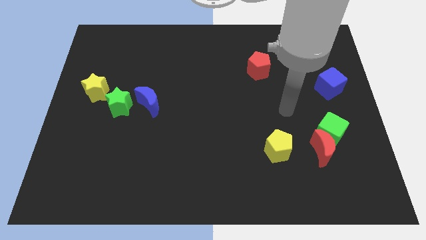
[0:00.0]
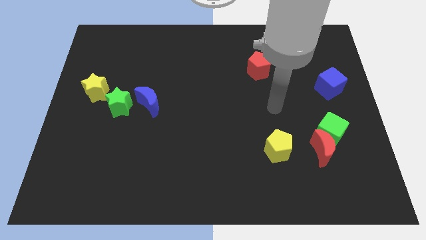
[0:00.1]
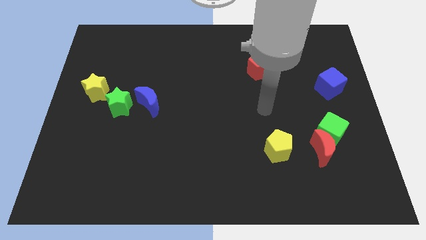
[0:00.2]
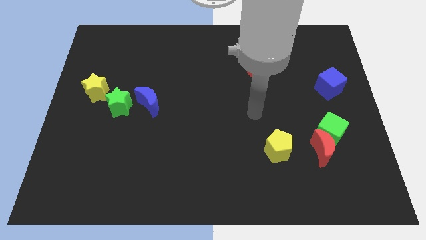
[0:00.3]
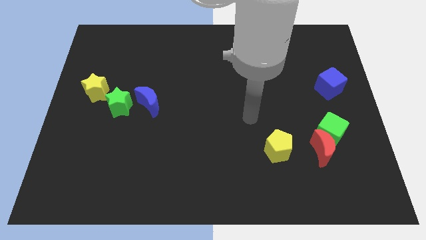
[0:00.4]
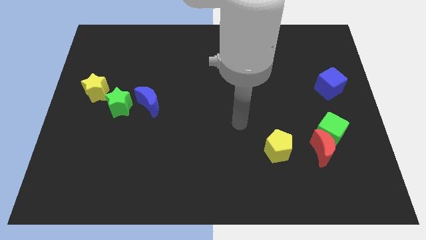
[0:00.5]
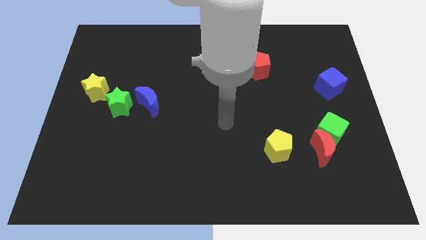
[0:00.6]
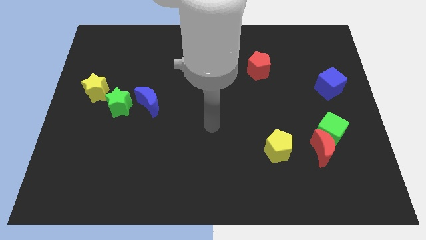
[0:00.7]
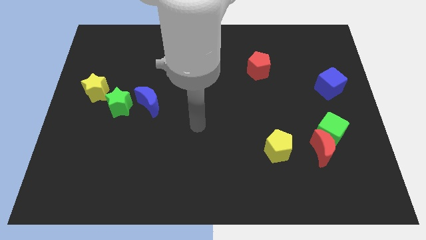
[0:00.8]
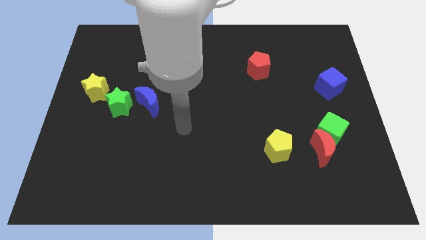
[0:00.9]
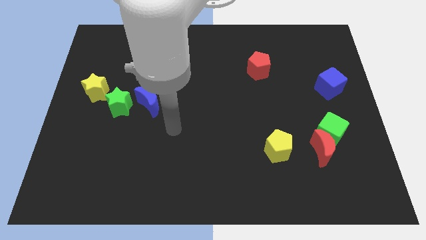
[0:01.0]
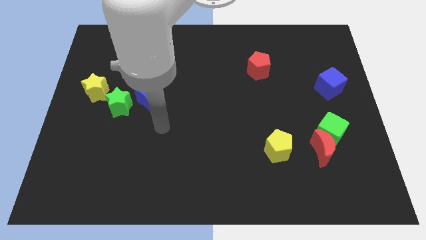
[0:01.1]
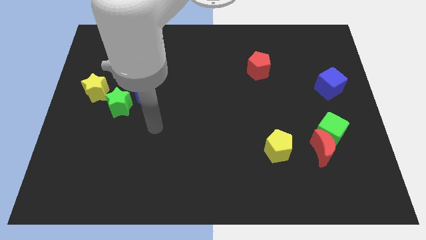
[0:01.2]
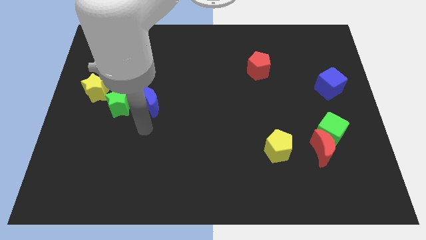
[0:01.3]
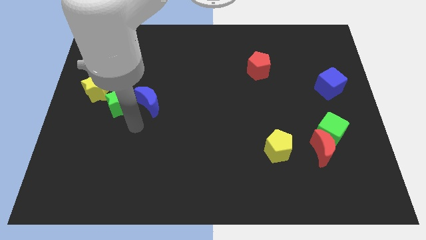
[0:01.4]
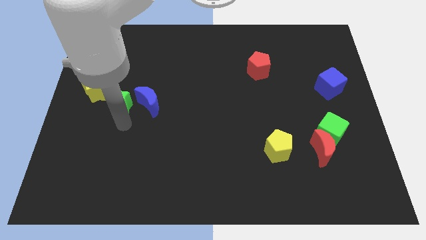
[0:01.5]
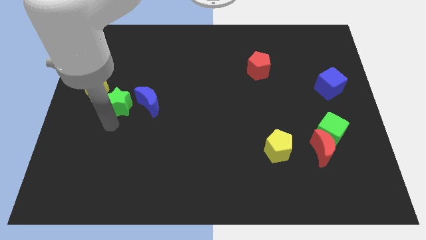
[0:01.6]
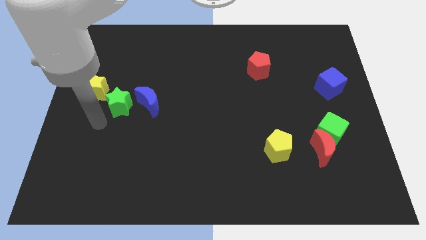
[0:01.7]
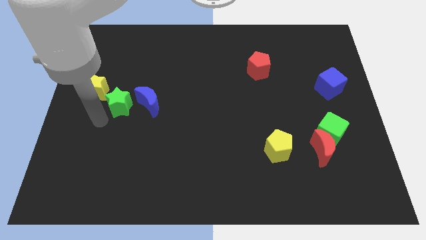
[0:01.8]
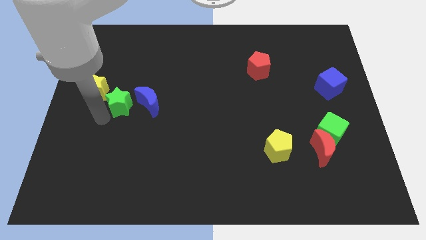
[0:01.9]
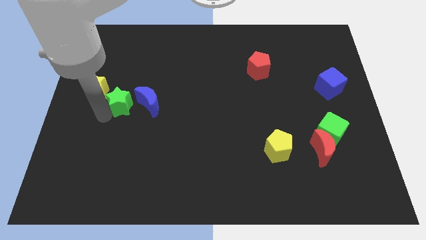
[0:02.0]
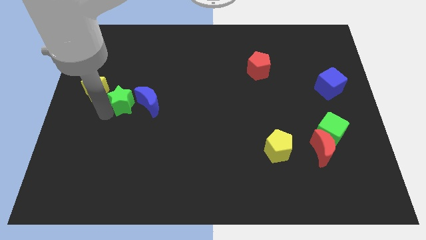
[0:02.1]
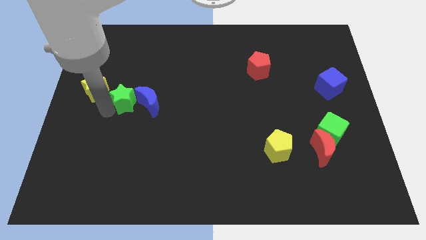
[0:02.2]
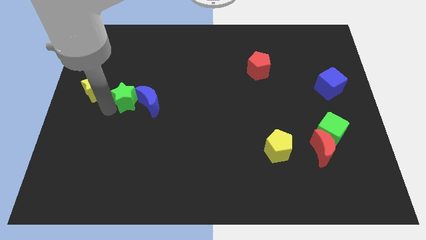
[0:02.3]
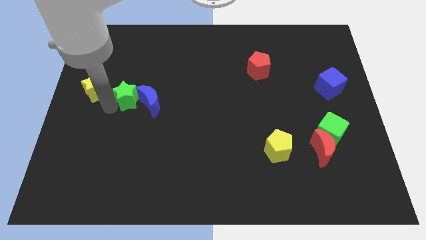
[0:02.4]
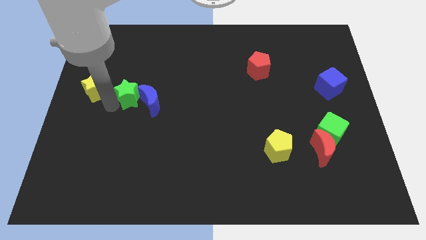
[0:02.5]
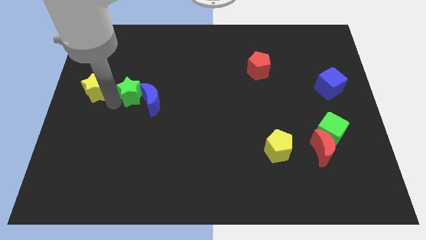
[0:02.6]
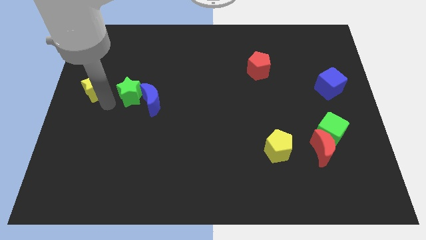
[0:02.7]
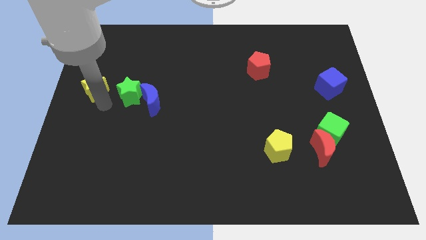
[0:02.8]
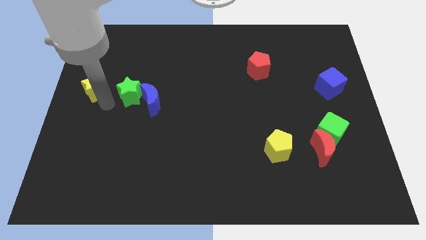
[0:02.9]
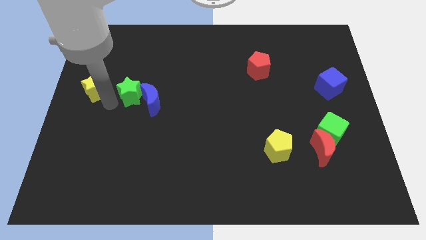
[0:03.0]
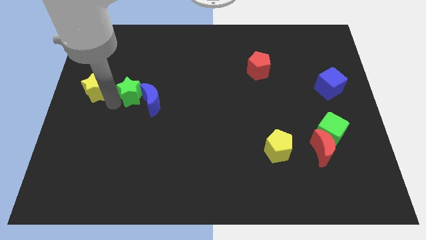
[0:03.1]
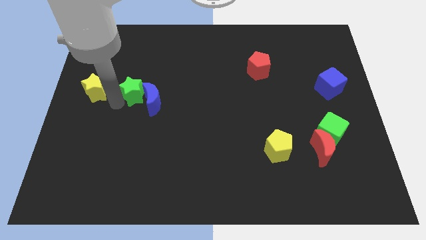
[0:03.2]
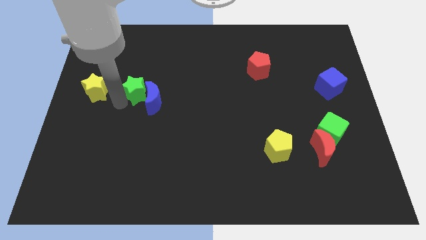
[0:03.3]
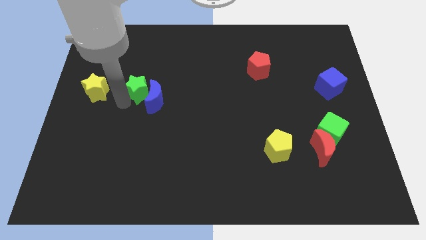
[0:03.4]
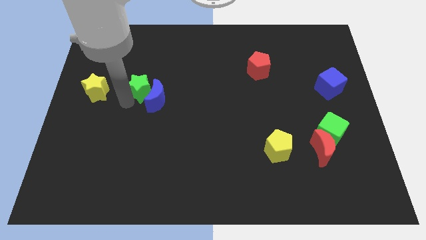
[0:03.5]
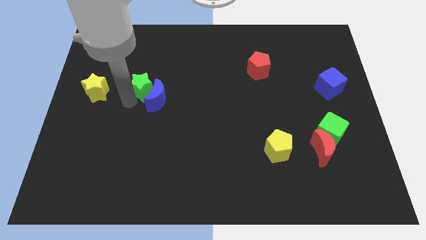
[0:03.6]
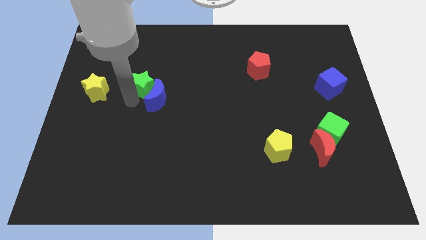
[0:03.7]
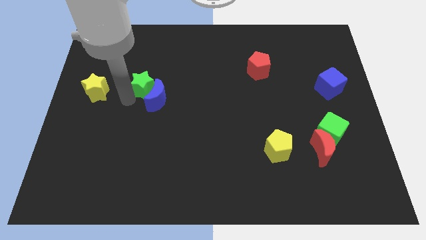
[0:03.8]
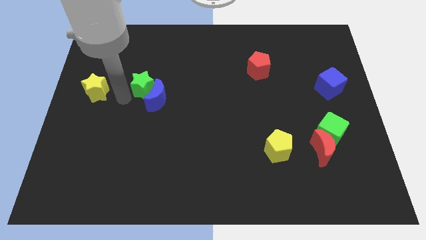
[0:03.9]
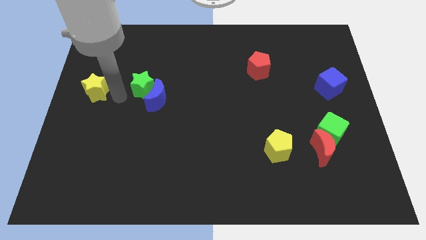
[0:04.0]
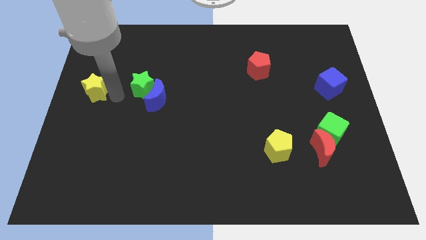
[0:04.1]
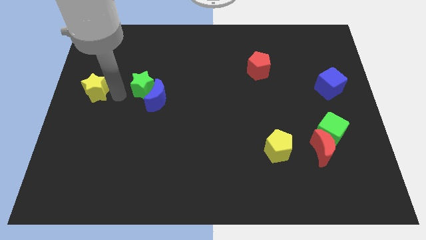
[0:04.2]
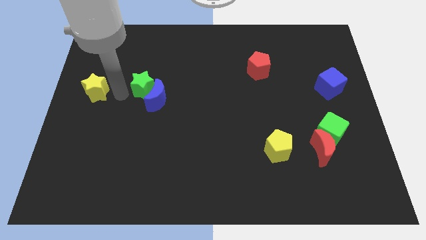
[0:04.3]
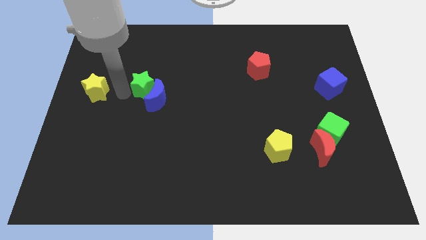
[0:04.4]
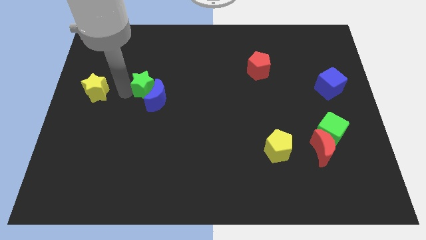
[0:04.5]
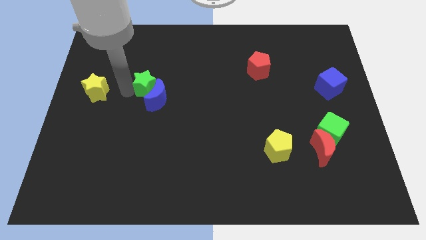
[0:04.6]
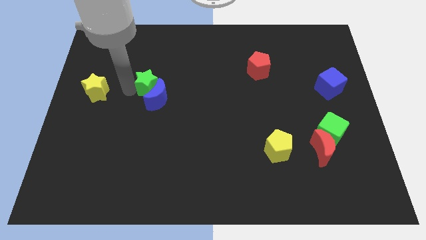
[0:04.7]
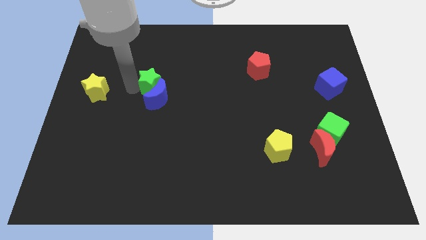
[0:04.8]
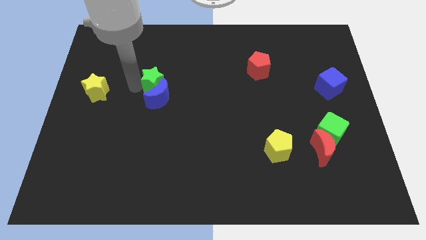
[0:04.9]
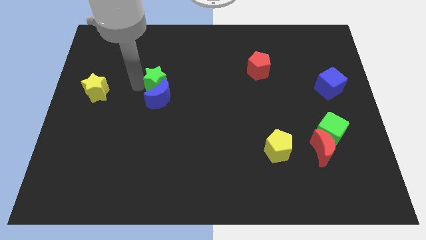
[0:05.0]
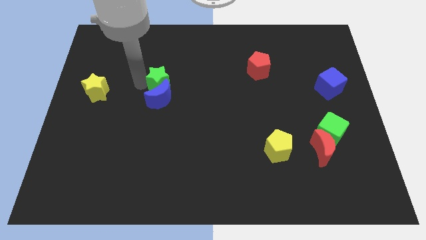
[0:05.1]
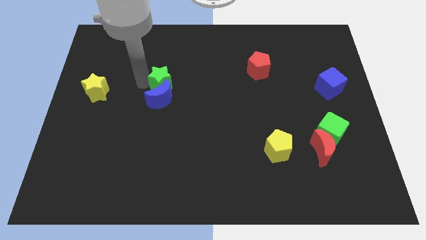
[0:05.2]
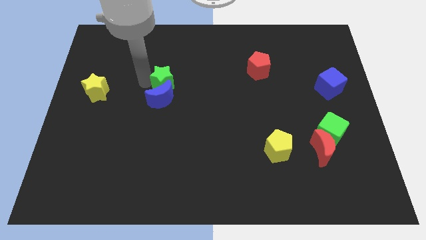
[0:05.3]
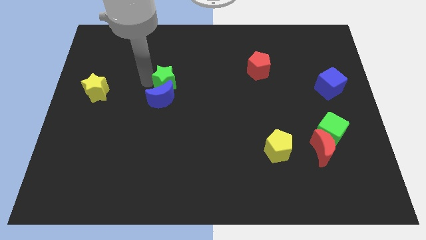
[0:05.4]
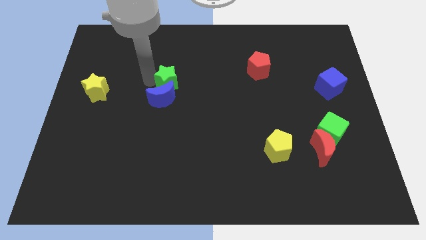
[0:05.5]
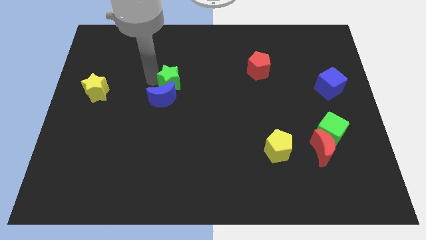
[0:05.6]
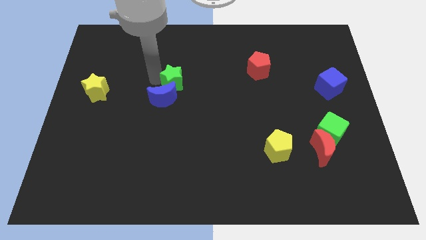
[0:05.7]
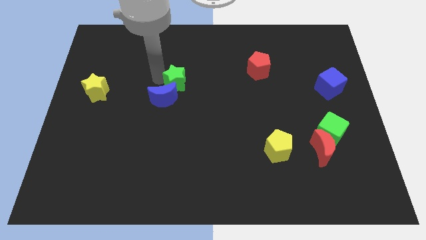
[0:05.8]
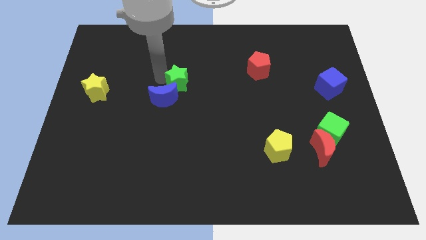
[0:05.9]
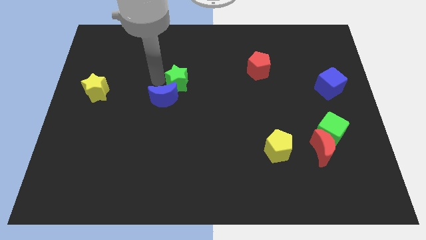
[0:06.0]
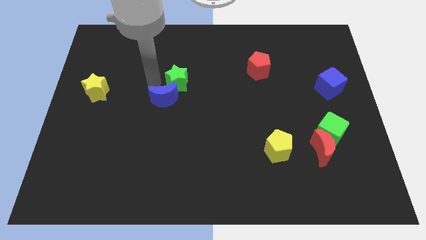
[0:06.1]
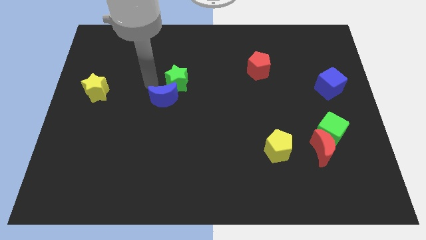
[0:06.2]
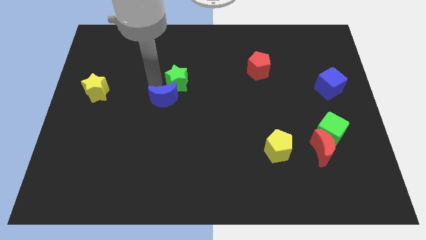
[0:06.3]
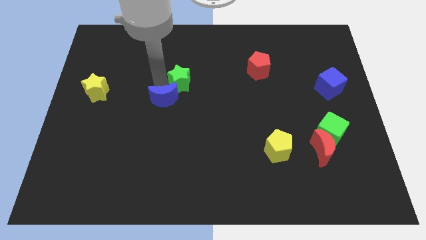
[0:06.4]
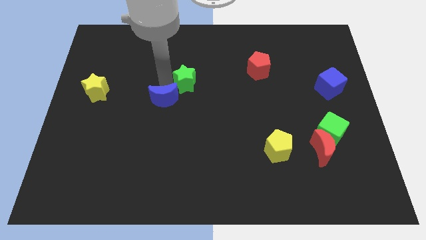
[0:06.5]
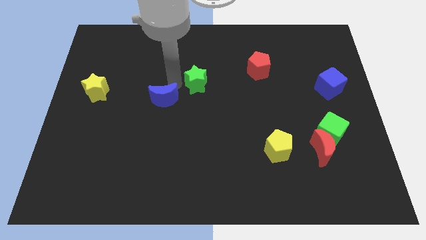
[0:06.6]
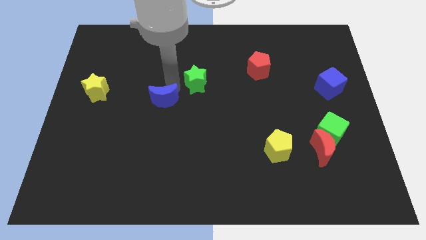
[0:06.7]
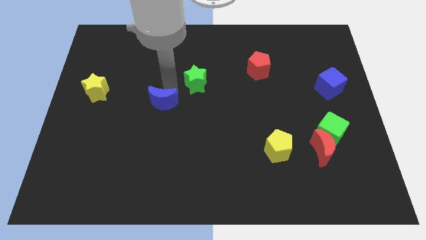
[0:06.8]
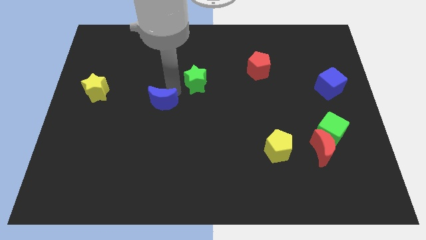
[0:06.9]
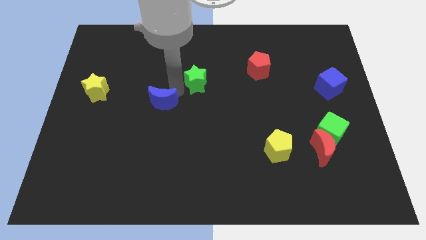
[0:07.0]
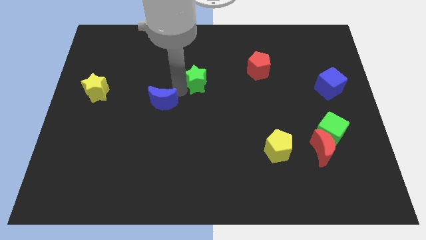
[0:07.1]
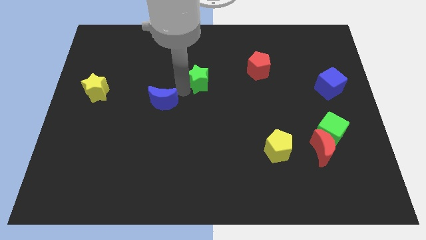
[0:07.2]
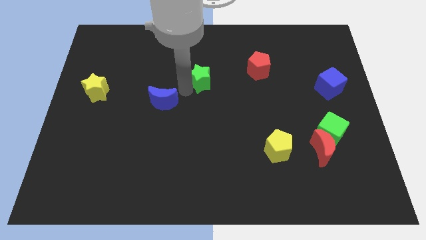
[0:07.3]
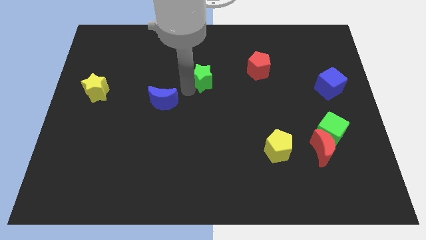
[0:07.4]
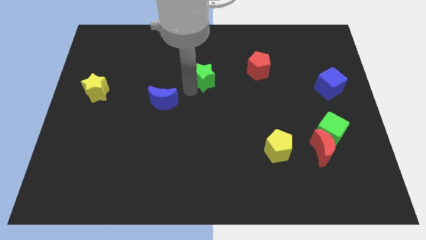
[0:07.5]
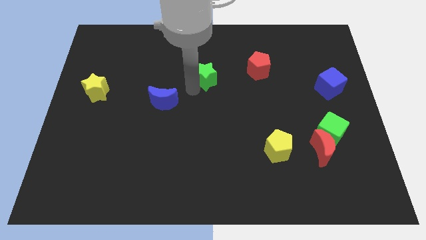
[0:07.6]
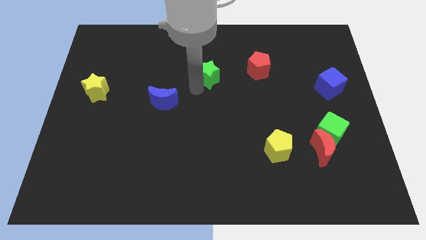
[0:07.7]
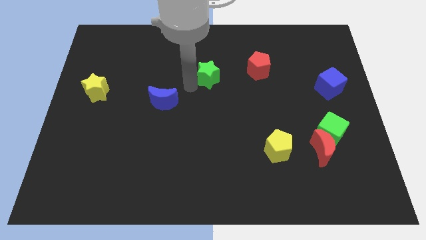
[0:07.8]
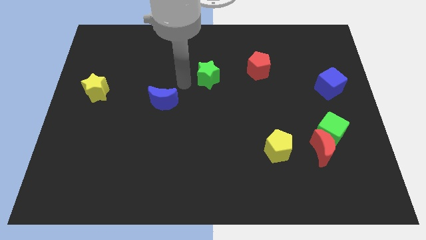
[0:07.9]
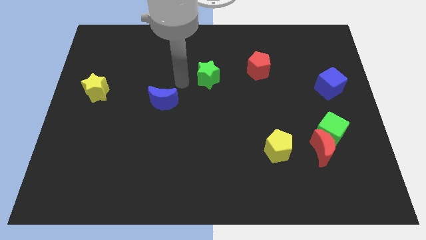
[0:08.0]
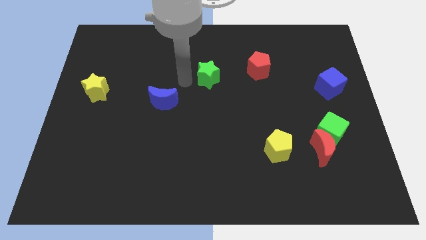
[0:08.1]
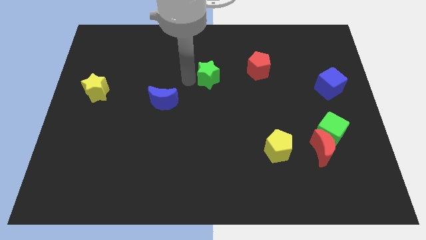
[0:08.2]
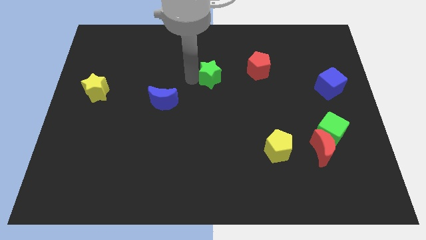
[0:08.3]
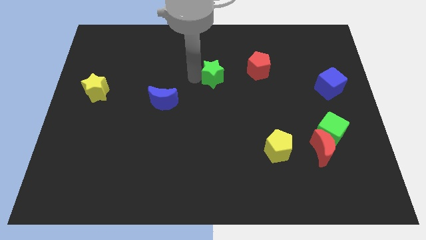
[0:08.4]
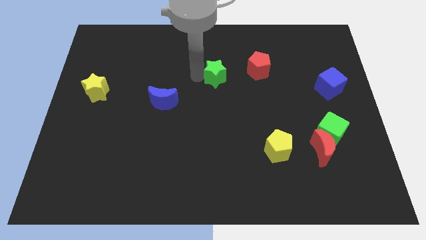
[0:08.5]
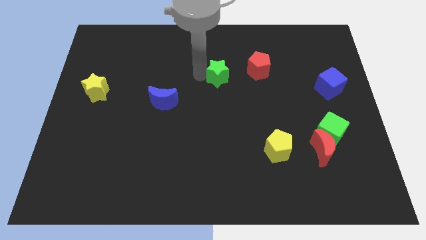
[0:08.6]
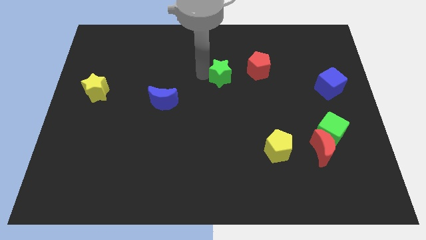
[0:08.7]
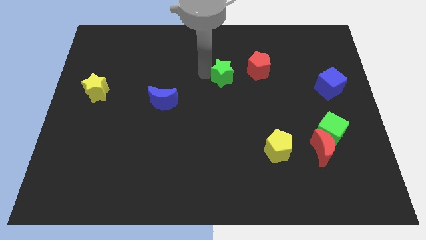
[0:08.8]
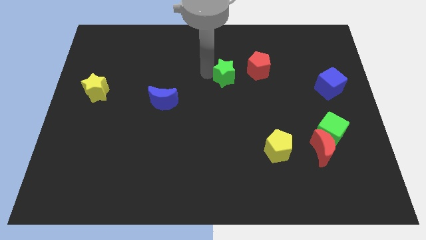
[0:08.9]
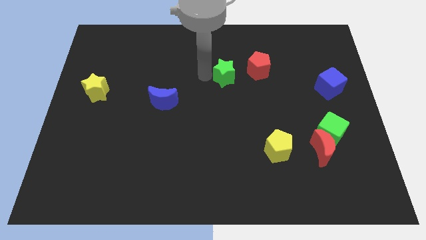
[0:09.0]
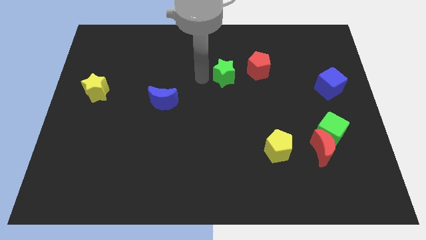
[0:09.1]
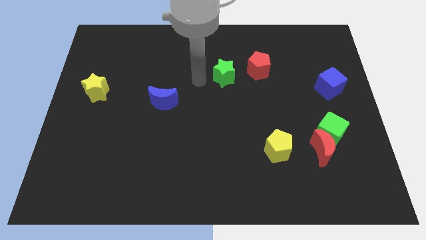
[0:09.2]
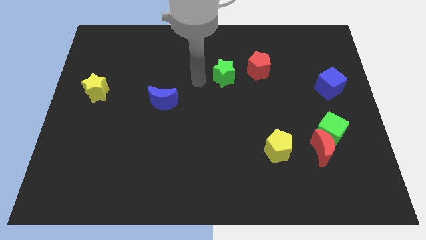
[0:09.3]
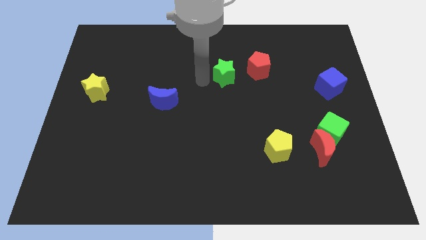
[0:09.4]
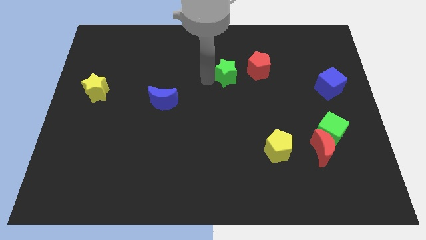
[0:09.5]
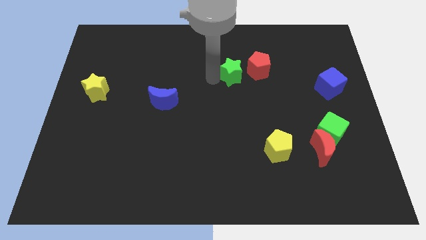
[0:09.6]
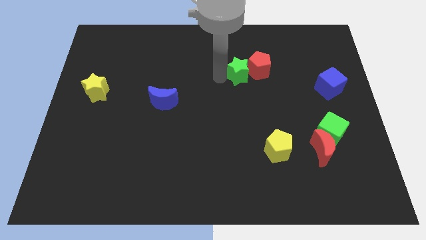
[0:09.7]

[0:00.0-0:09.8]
put the green star next to the red pentagon
